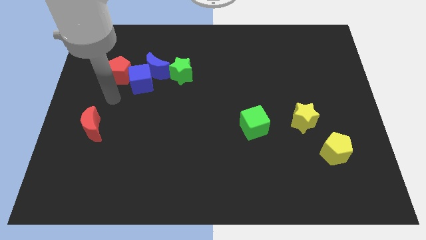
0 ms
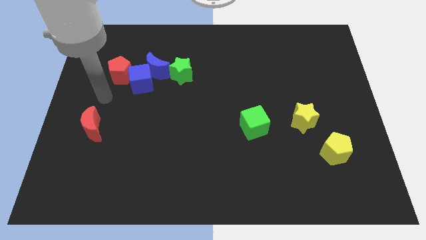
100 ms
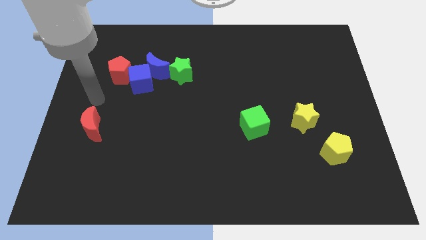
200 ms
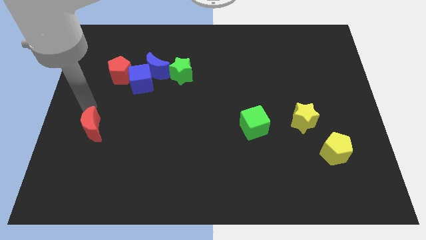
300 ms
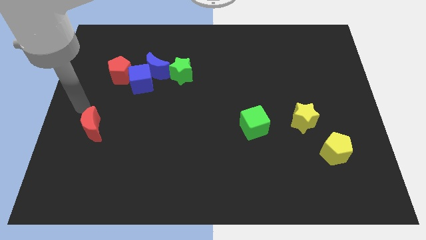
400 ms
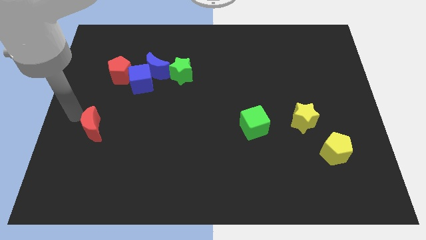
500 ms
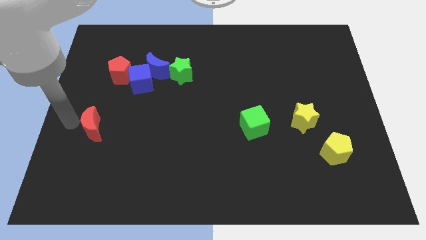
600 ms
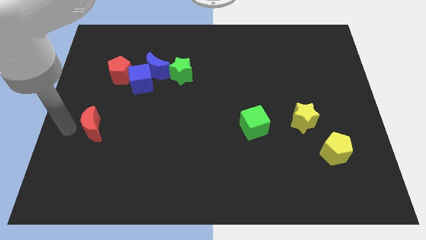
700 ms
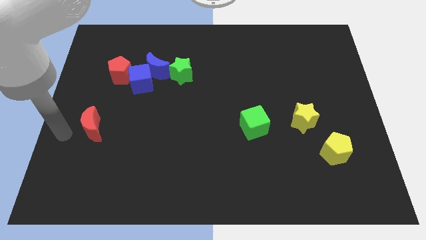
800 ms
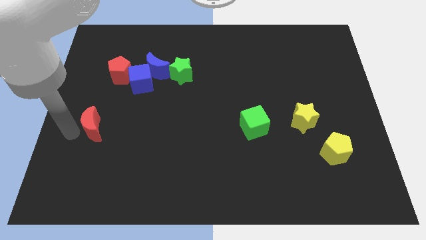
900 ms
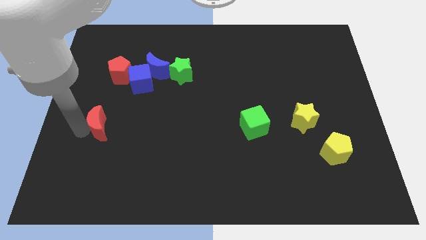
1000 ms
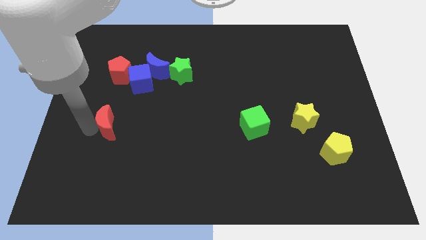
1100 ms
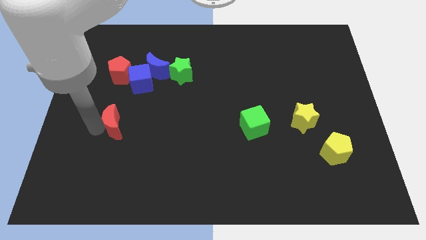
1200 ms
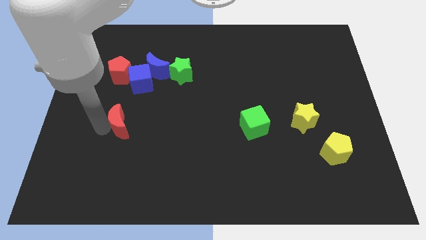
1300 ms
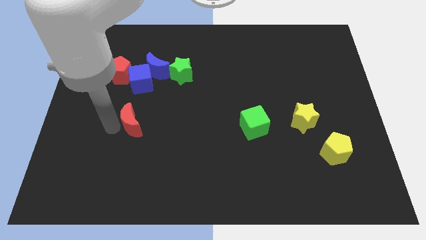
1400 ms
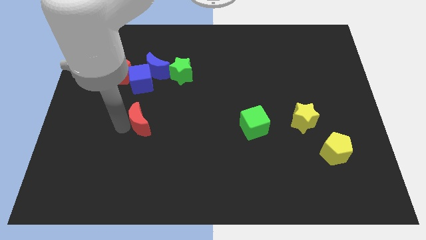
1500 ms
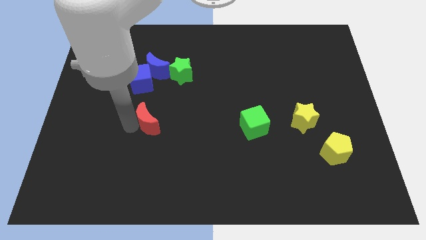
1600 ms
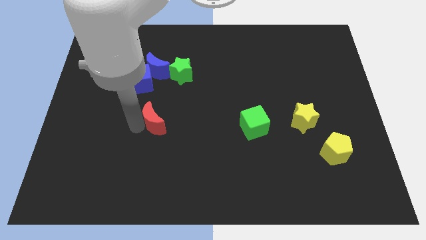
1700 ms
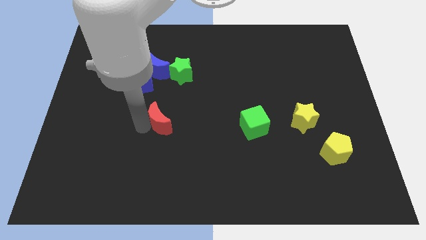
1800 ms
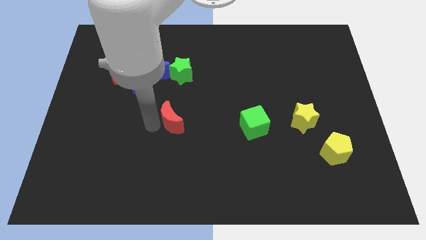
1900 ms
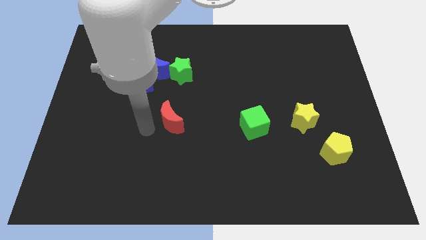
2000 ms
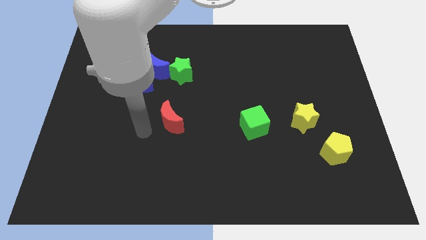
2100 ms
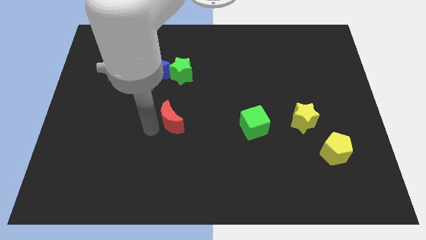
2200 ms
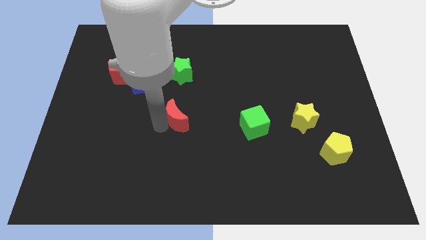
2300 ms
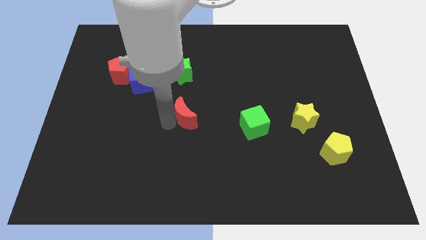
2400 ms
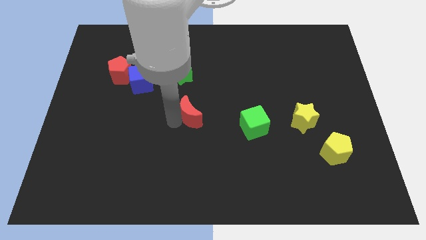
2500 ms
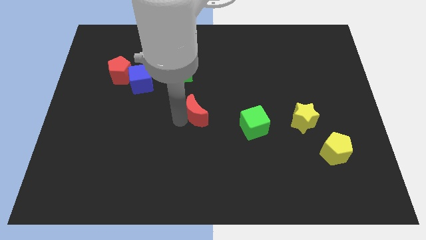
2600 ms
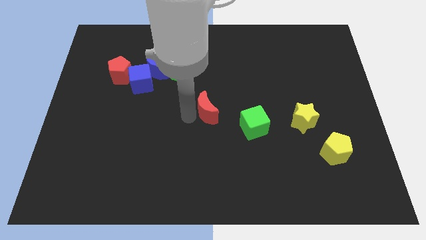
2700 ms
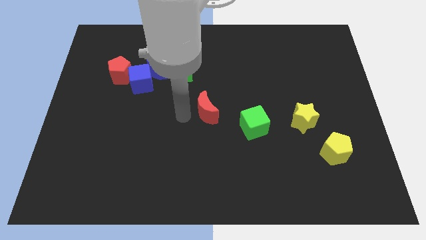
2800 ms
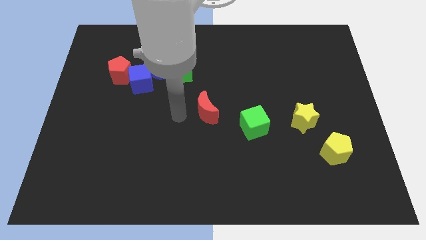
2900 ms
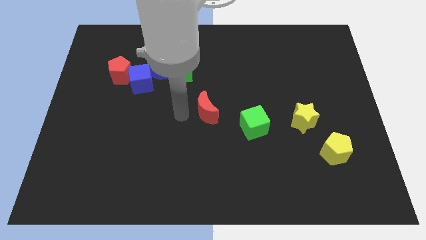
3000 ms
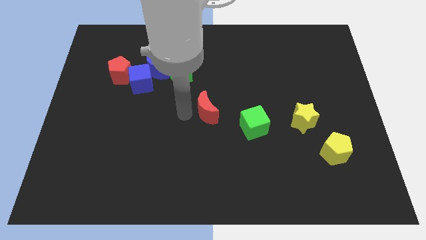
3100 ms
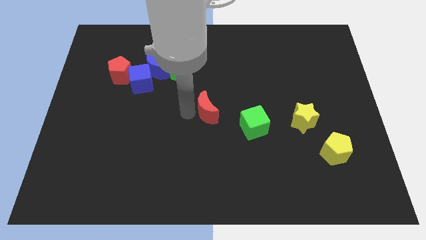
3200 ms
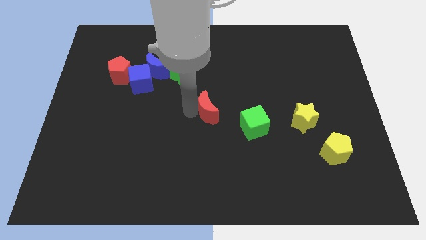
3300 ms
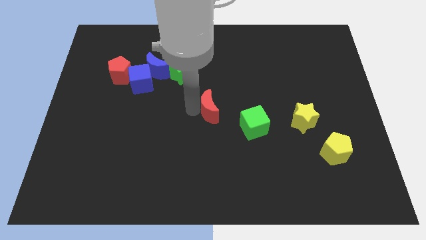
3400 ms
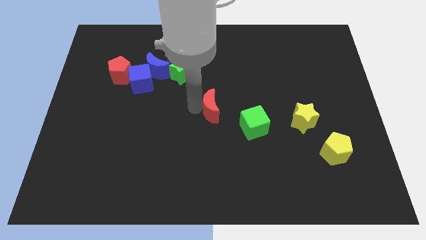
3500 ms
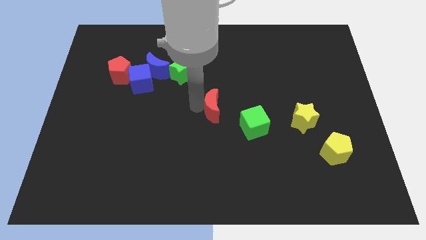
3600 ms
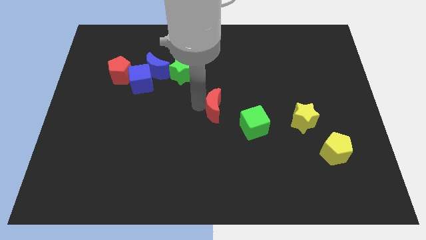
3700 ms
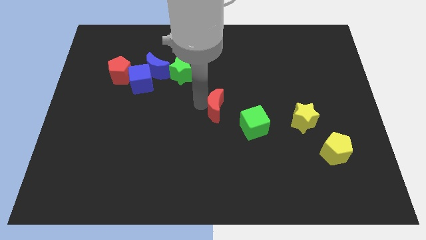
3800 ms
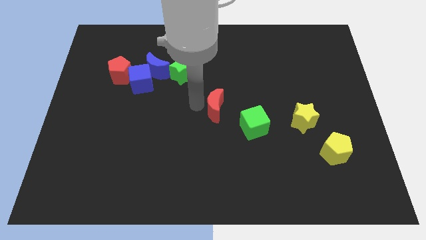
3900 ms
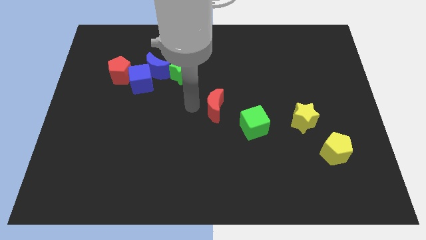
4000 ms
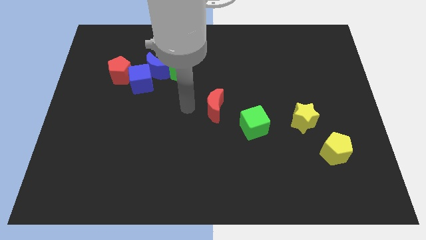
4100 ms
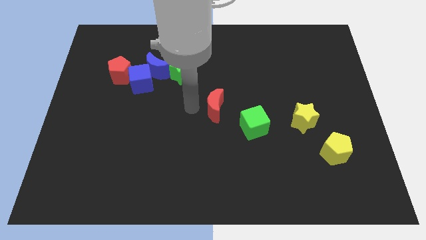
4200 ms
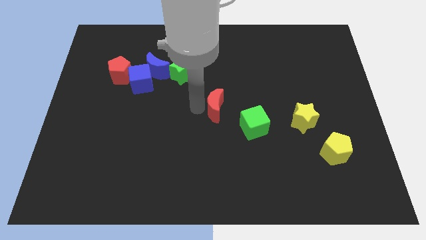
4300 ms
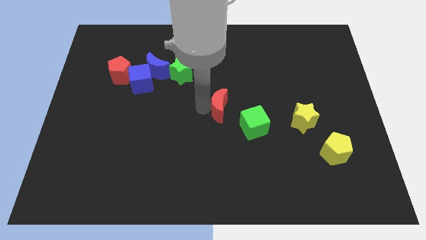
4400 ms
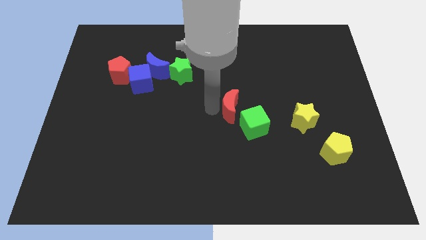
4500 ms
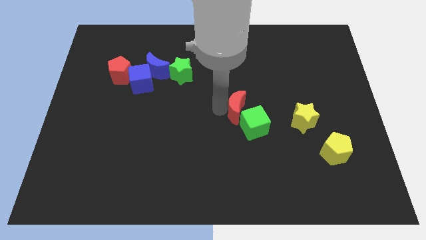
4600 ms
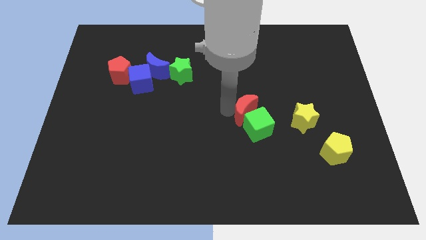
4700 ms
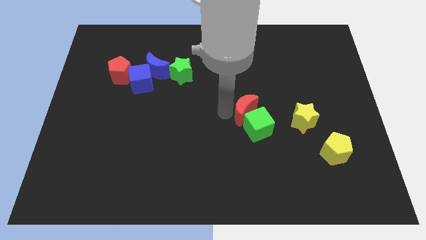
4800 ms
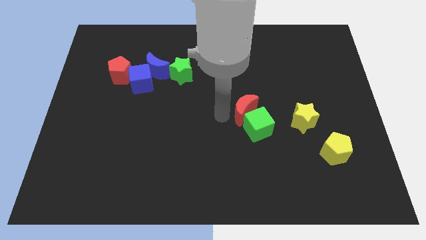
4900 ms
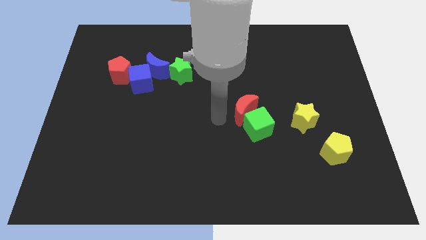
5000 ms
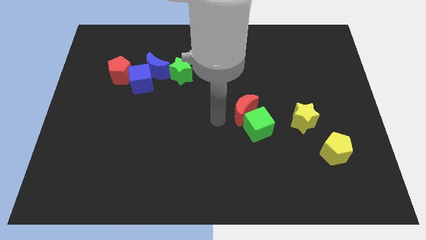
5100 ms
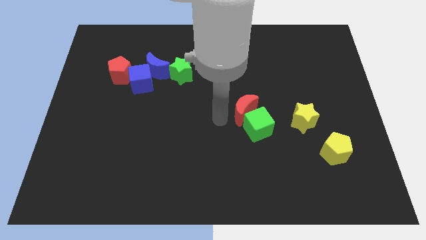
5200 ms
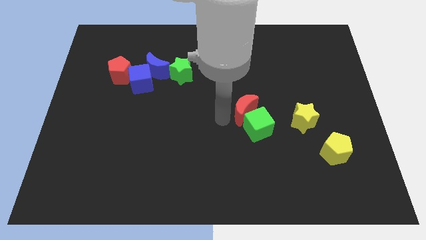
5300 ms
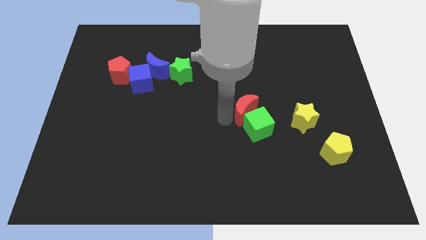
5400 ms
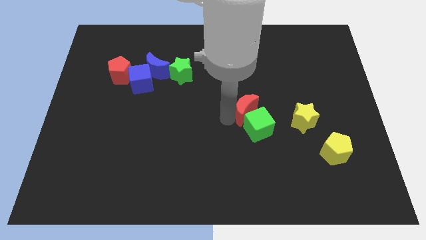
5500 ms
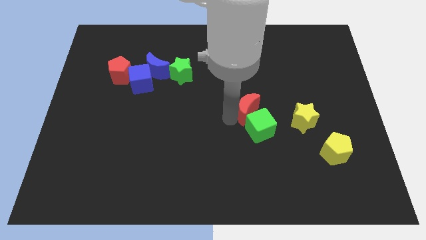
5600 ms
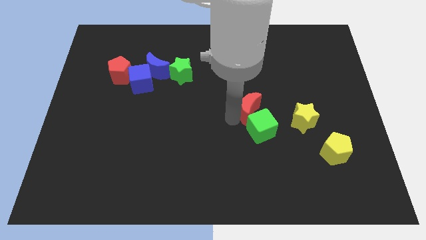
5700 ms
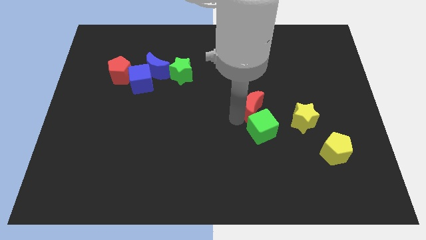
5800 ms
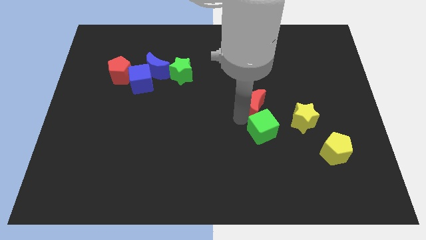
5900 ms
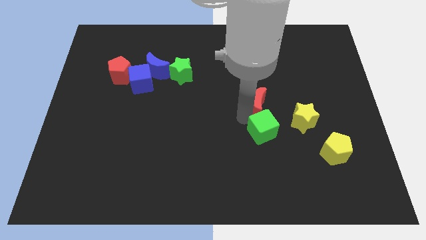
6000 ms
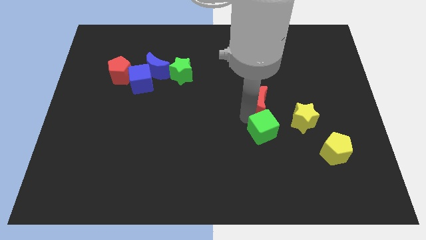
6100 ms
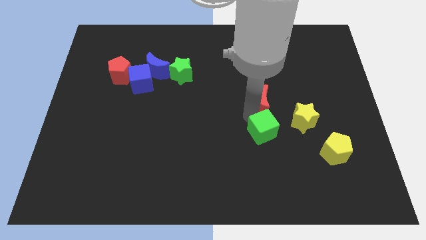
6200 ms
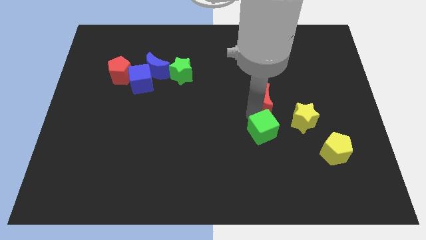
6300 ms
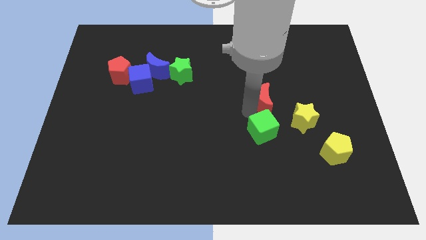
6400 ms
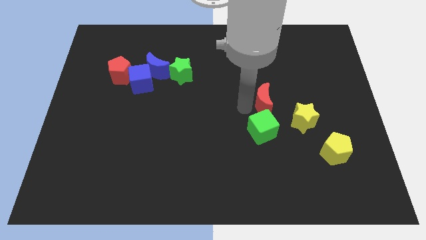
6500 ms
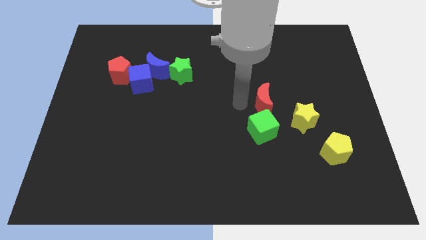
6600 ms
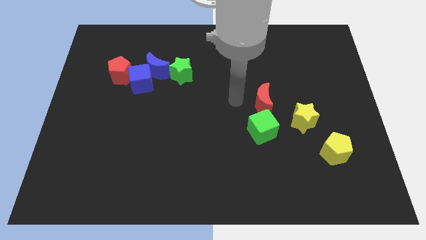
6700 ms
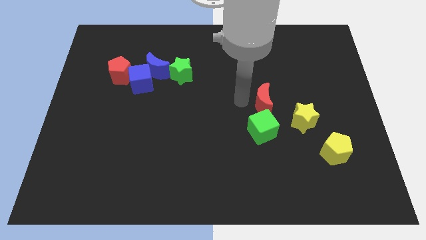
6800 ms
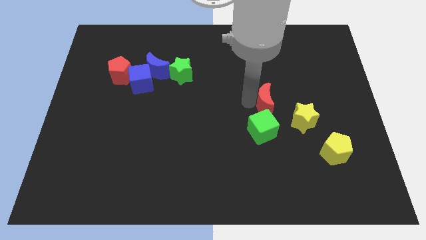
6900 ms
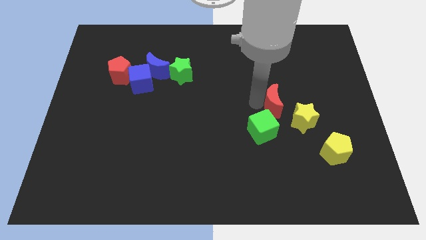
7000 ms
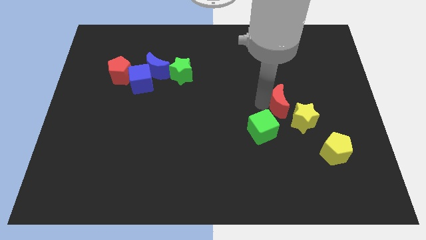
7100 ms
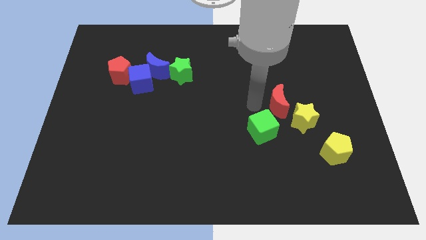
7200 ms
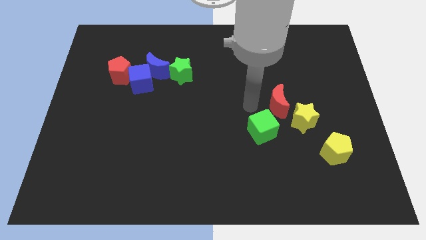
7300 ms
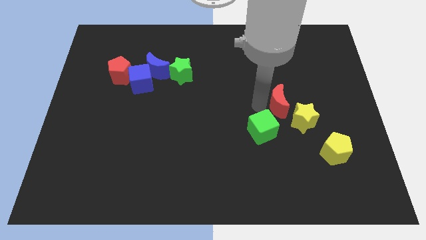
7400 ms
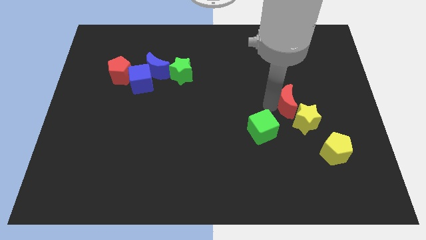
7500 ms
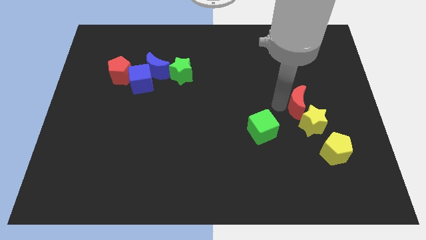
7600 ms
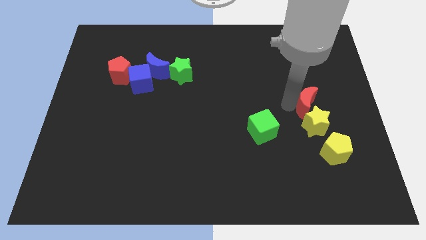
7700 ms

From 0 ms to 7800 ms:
move the red moon diagonally up and to the right of the yellow star
